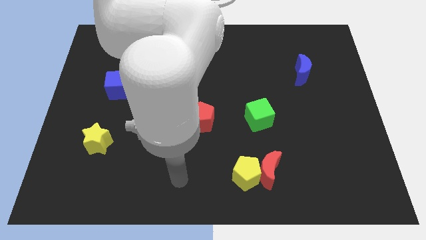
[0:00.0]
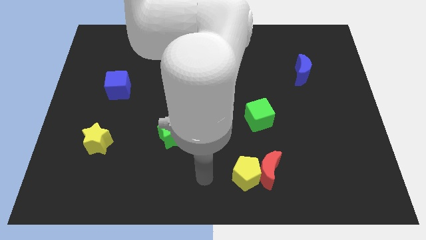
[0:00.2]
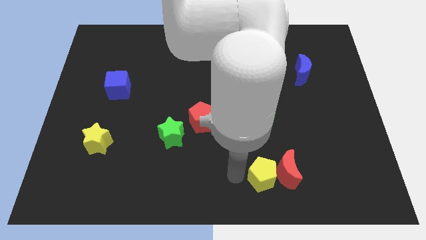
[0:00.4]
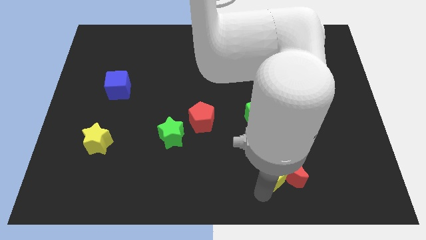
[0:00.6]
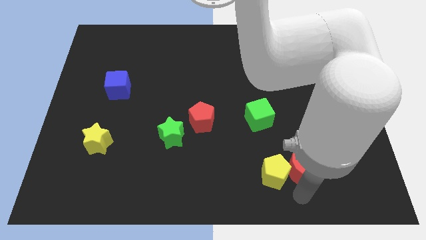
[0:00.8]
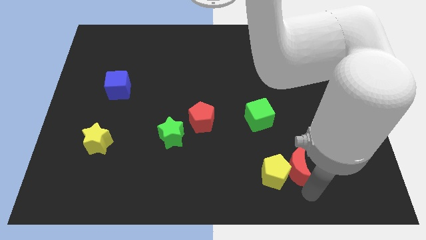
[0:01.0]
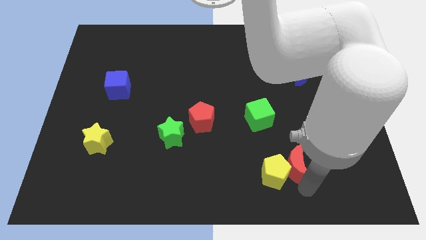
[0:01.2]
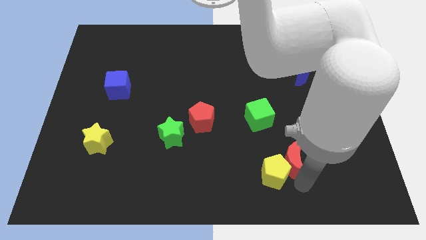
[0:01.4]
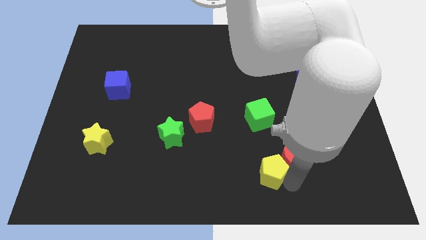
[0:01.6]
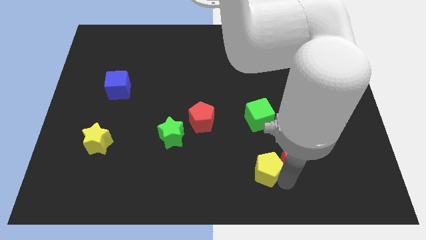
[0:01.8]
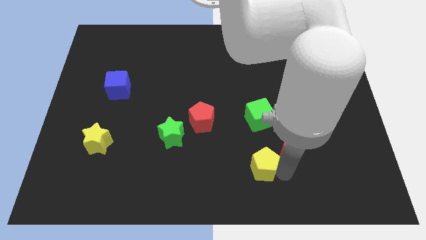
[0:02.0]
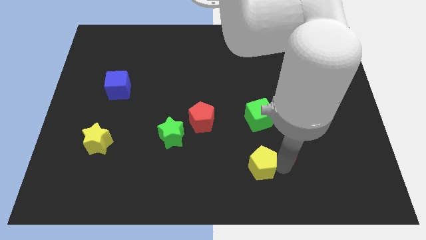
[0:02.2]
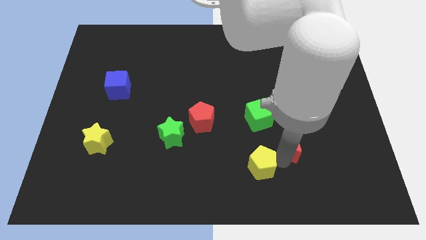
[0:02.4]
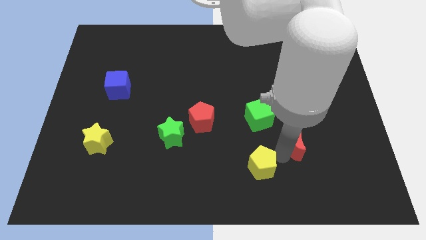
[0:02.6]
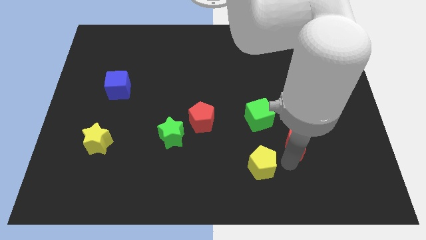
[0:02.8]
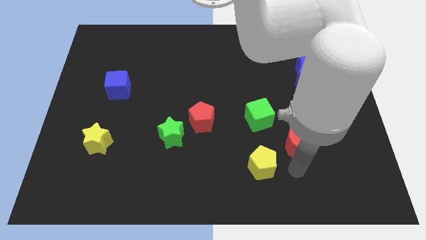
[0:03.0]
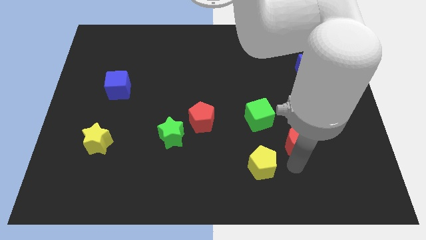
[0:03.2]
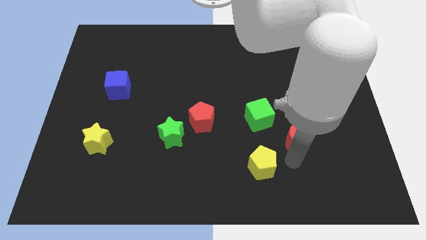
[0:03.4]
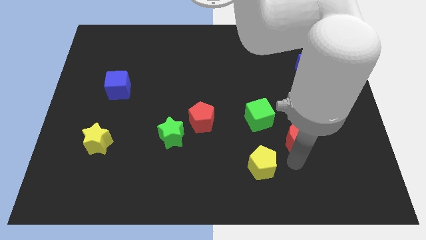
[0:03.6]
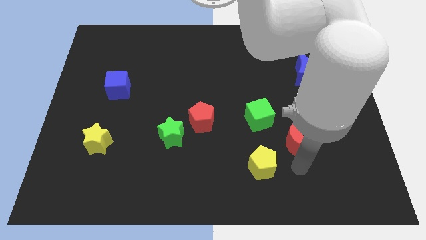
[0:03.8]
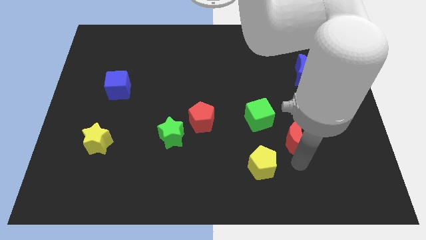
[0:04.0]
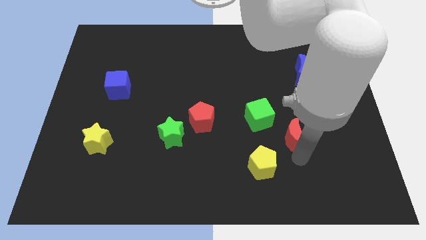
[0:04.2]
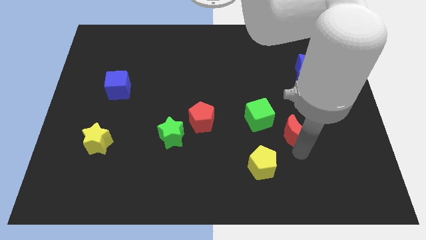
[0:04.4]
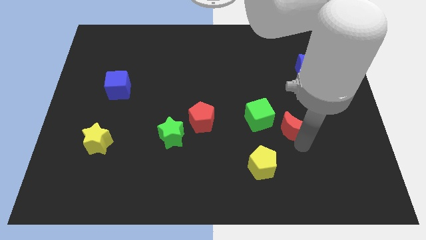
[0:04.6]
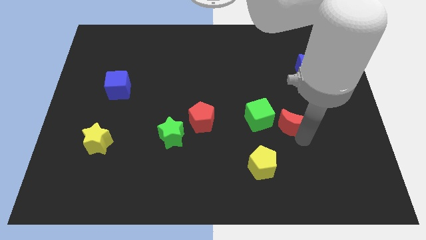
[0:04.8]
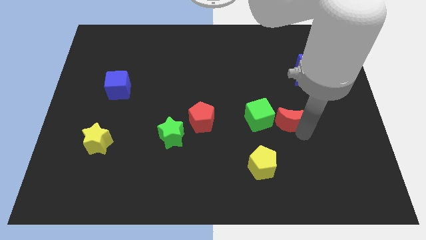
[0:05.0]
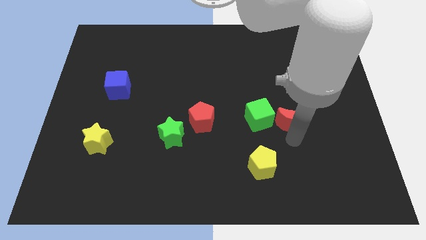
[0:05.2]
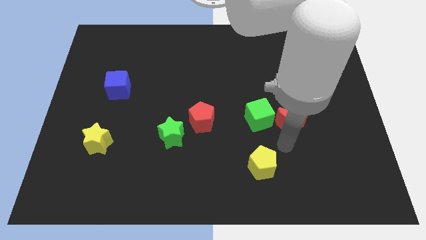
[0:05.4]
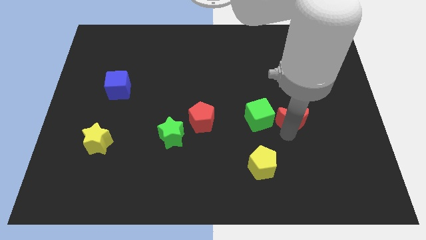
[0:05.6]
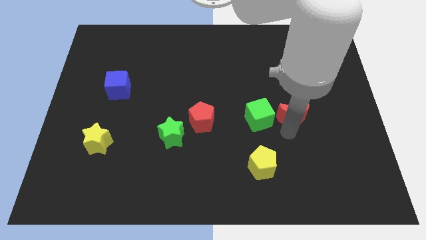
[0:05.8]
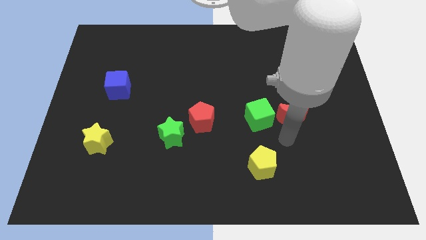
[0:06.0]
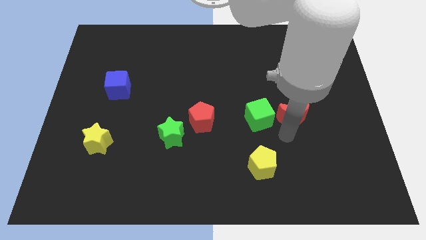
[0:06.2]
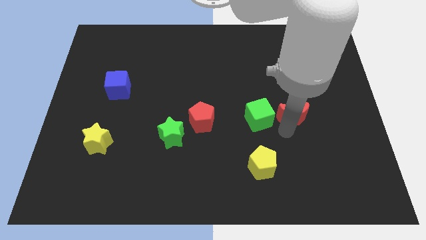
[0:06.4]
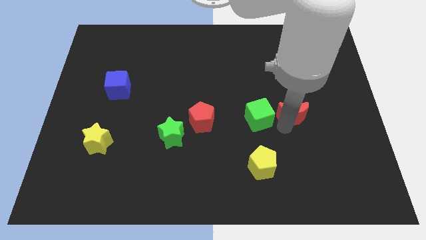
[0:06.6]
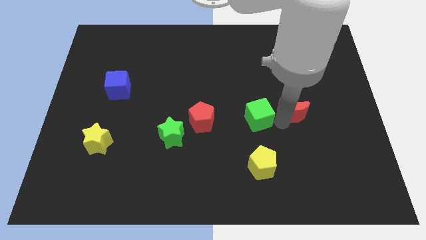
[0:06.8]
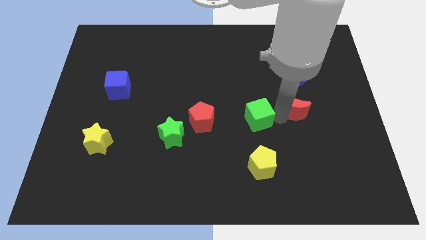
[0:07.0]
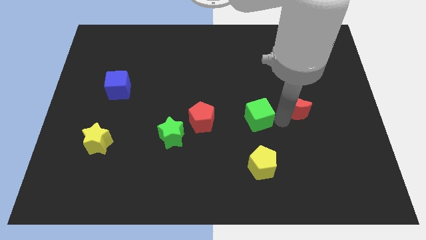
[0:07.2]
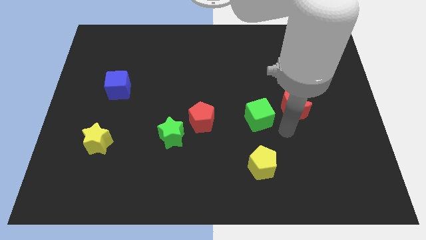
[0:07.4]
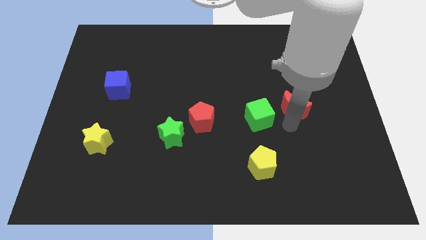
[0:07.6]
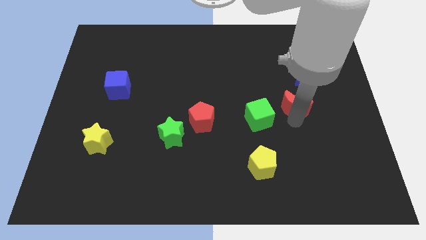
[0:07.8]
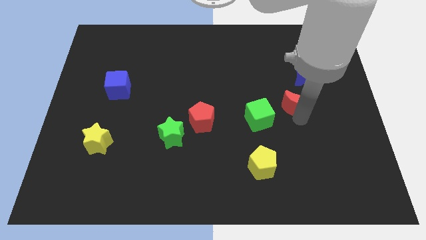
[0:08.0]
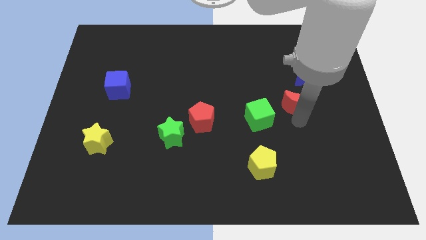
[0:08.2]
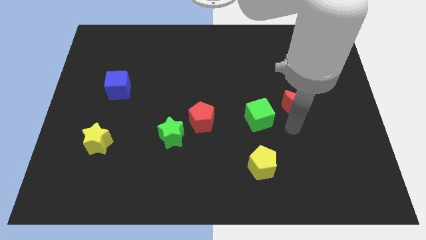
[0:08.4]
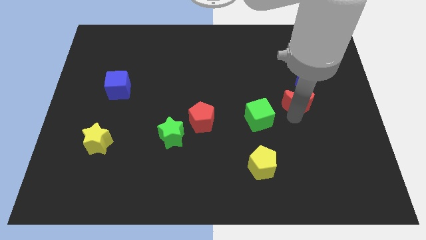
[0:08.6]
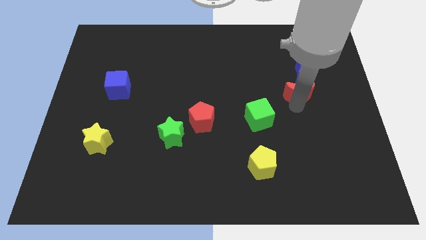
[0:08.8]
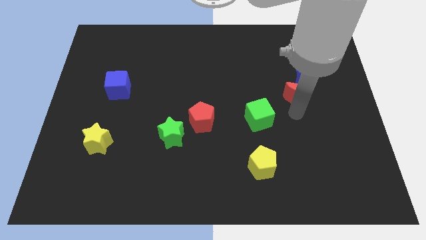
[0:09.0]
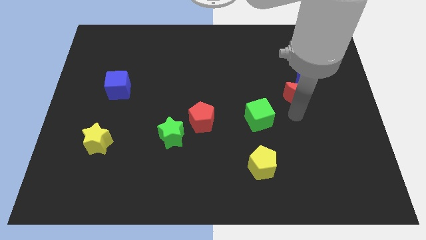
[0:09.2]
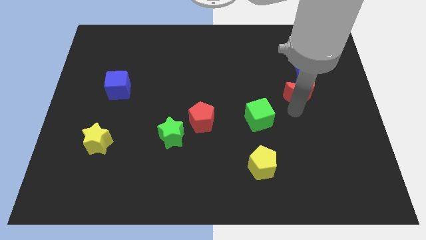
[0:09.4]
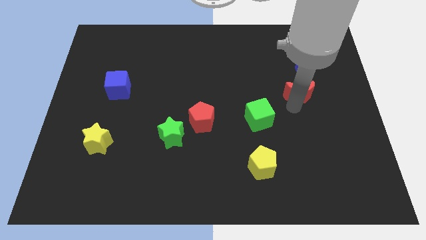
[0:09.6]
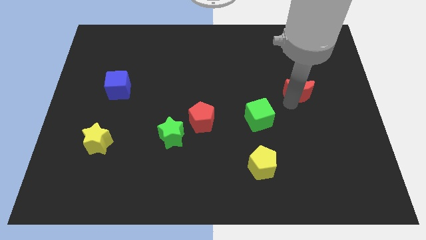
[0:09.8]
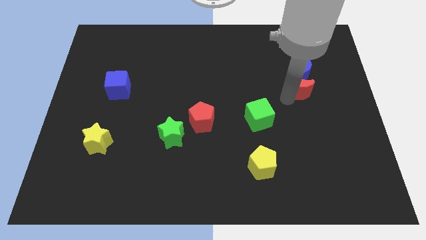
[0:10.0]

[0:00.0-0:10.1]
push the red moon towards the blue moon

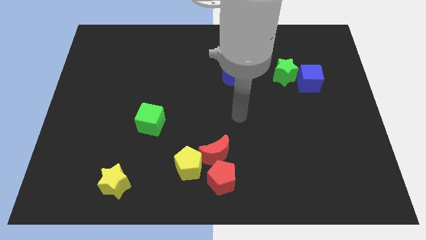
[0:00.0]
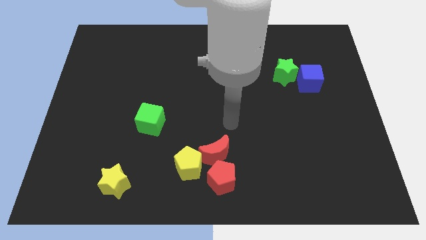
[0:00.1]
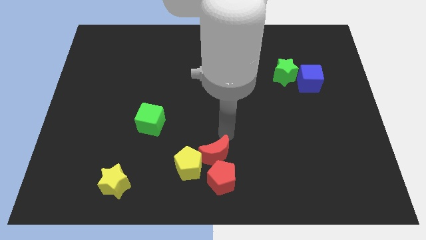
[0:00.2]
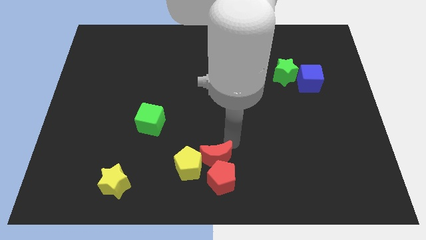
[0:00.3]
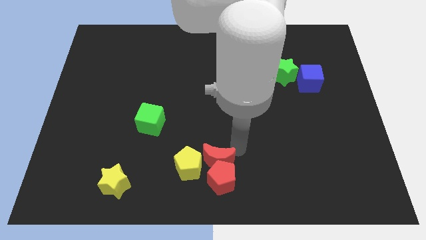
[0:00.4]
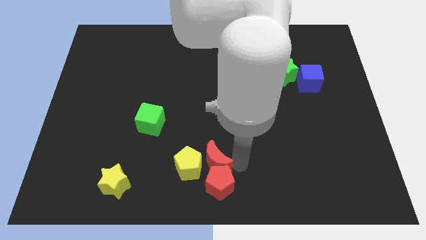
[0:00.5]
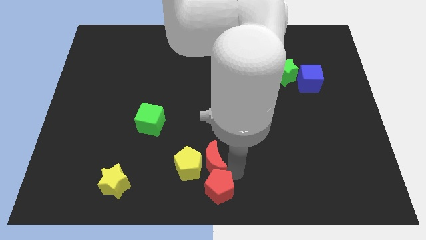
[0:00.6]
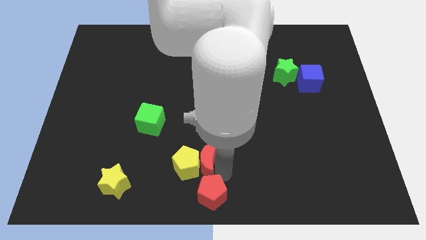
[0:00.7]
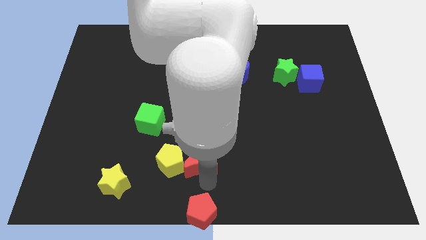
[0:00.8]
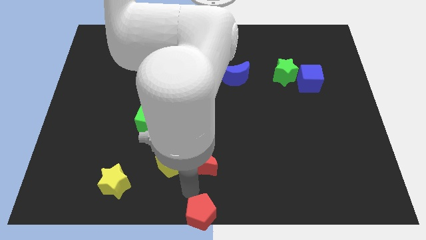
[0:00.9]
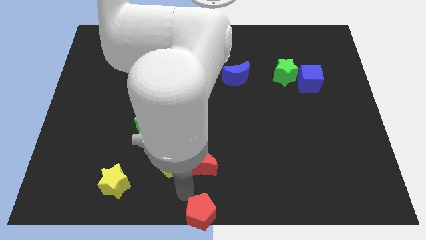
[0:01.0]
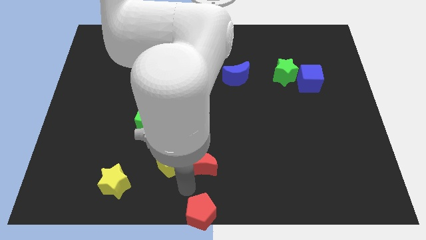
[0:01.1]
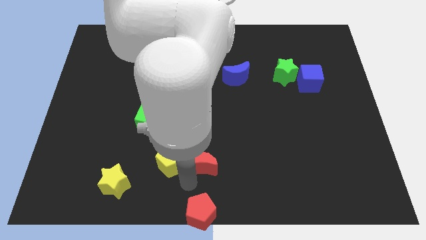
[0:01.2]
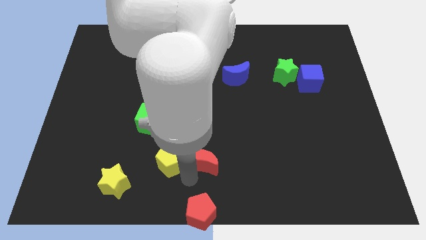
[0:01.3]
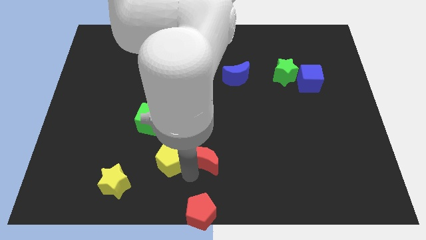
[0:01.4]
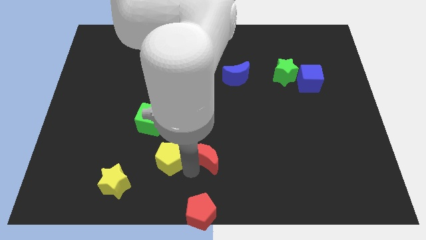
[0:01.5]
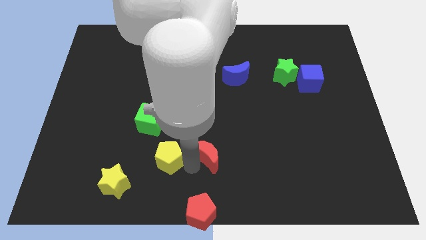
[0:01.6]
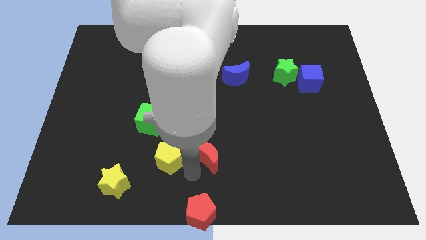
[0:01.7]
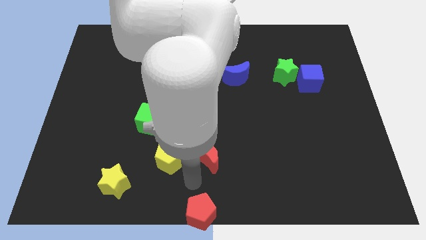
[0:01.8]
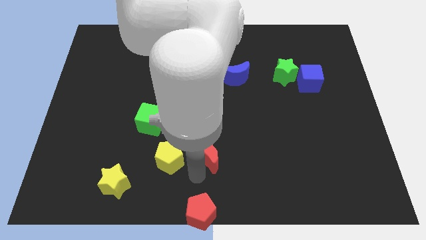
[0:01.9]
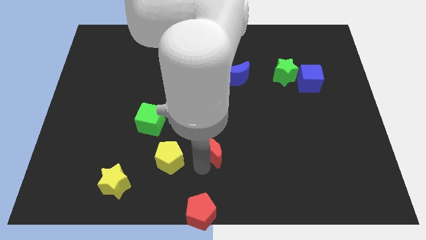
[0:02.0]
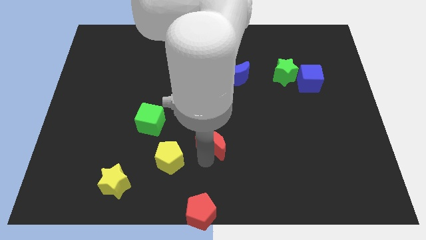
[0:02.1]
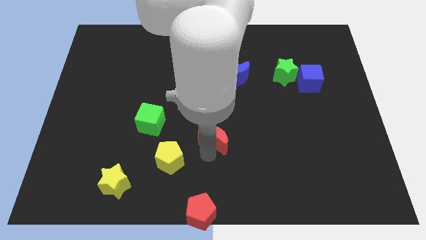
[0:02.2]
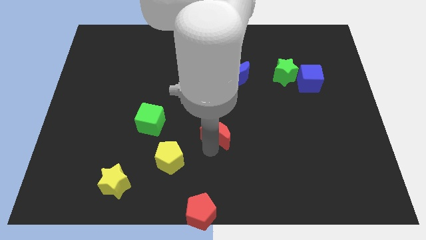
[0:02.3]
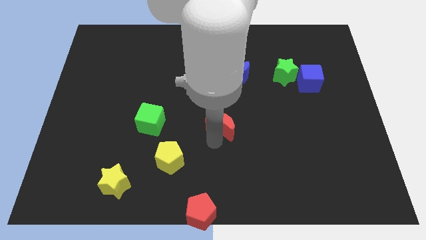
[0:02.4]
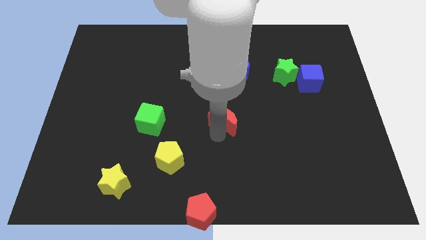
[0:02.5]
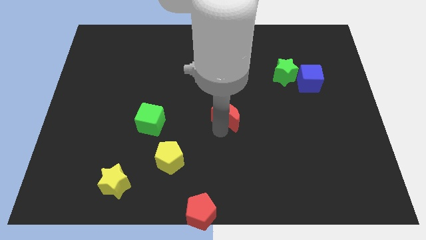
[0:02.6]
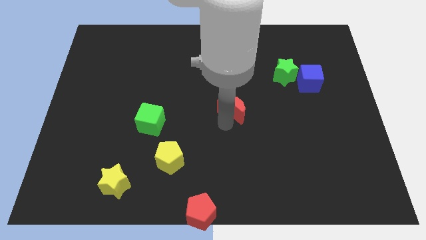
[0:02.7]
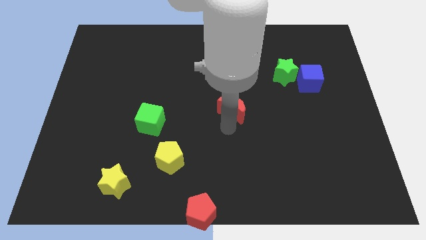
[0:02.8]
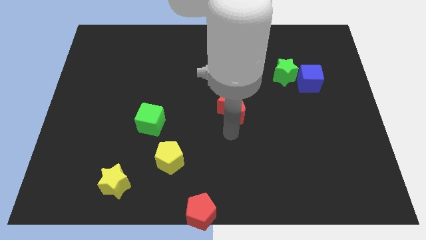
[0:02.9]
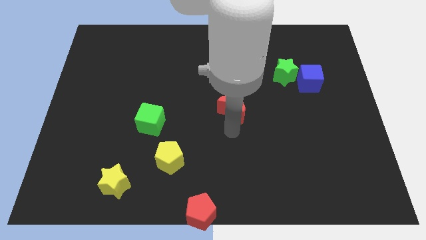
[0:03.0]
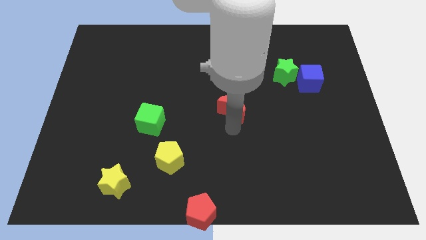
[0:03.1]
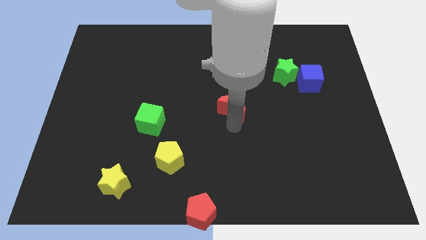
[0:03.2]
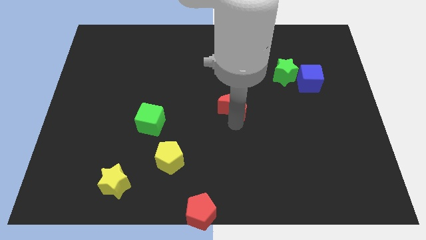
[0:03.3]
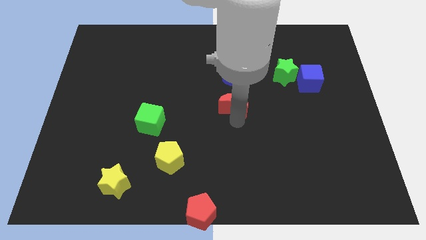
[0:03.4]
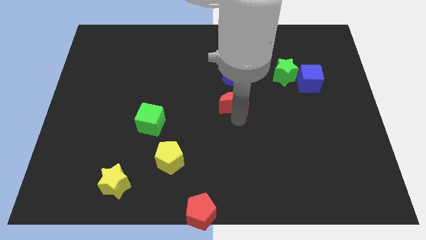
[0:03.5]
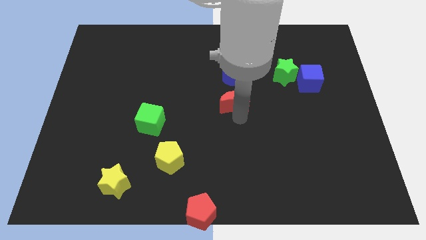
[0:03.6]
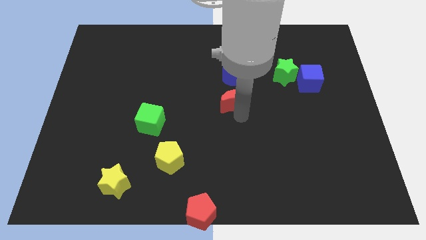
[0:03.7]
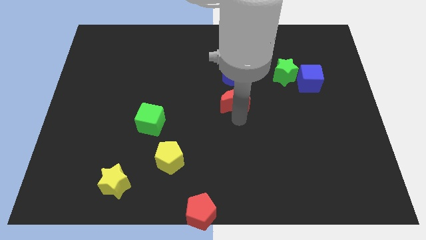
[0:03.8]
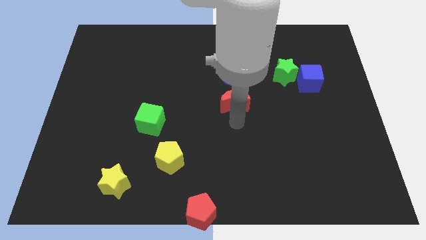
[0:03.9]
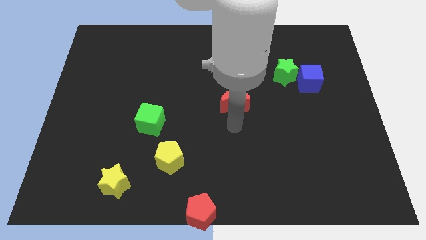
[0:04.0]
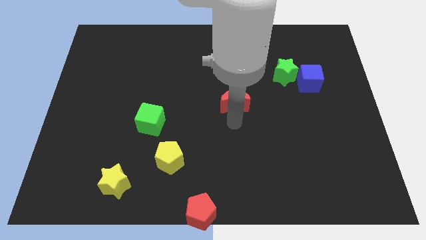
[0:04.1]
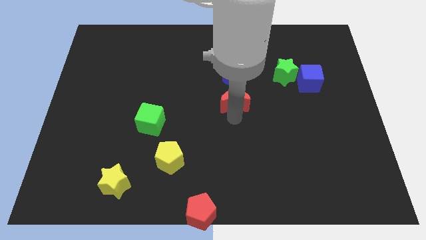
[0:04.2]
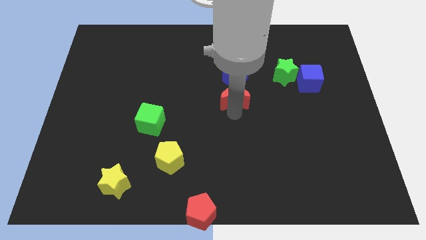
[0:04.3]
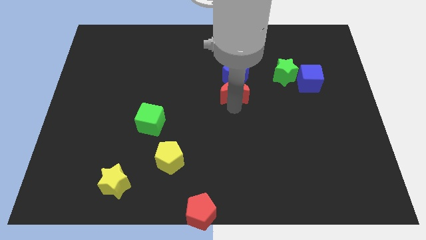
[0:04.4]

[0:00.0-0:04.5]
move the red moon to the blue moon
